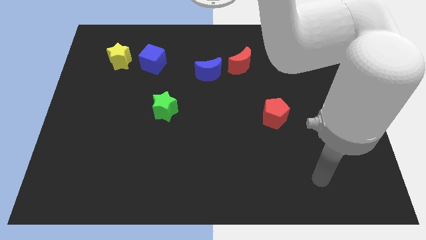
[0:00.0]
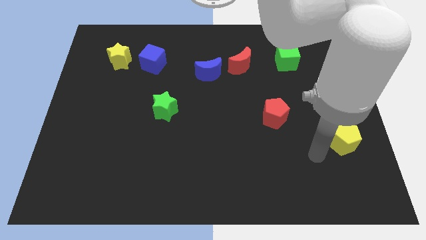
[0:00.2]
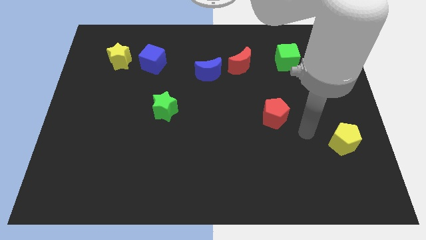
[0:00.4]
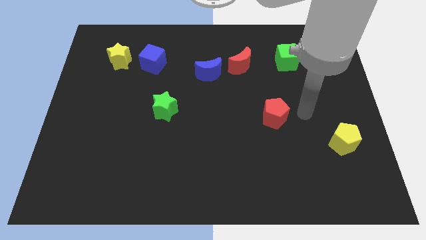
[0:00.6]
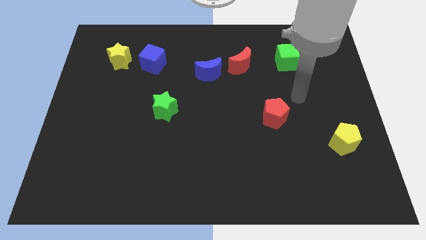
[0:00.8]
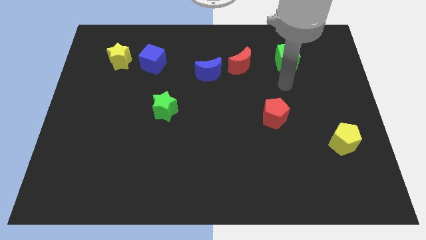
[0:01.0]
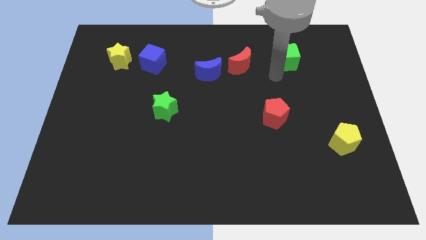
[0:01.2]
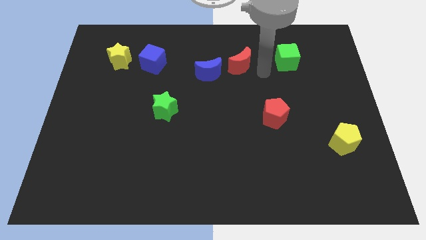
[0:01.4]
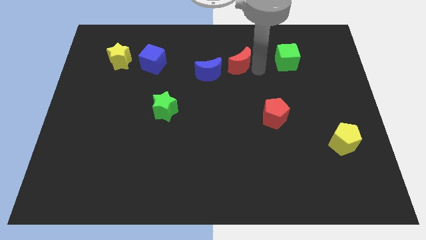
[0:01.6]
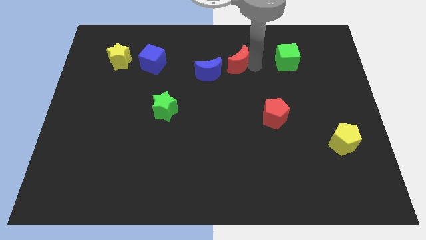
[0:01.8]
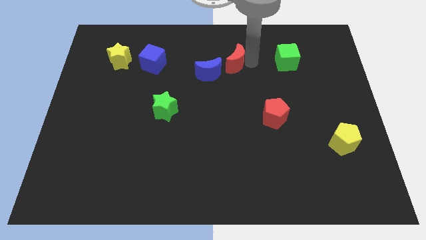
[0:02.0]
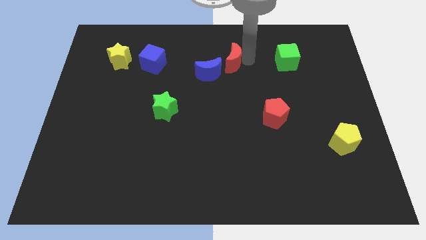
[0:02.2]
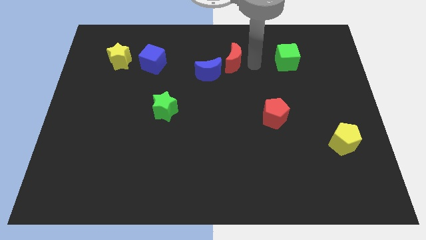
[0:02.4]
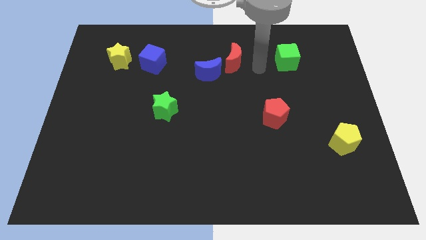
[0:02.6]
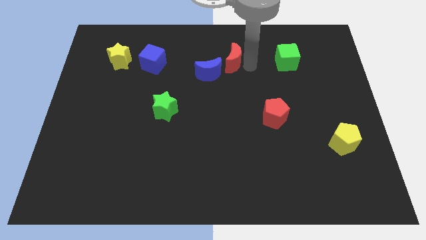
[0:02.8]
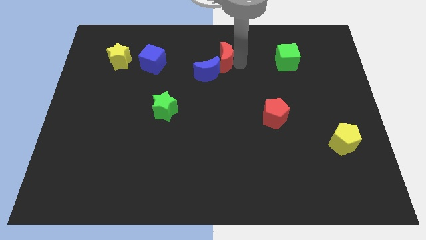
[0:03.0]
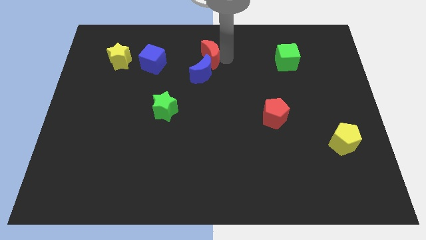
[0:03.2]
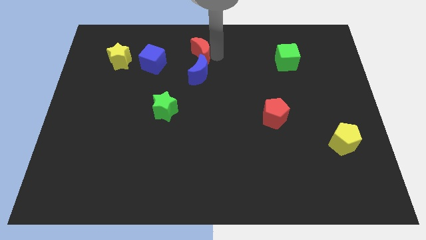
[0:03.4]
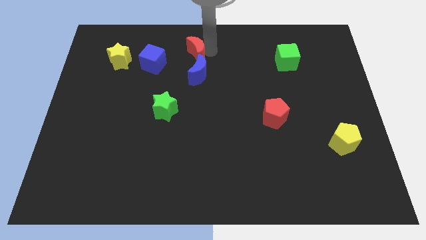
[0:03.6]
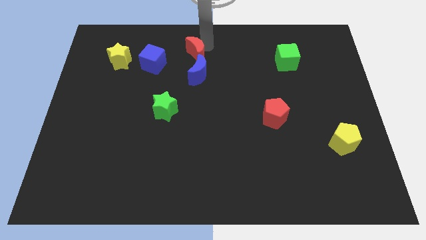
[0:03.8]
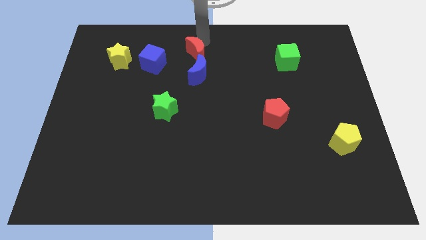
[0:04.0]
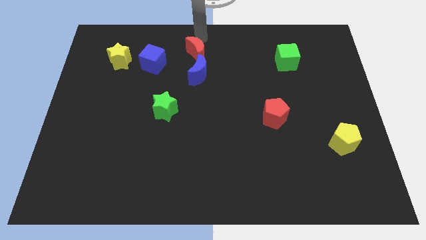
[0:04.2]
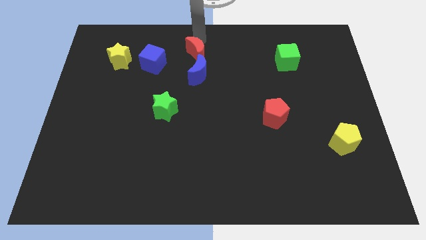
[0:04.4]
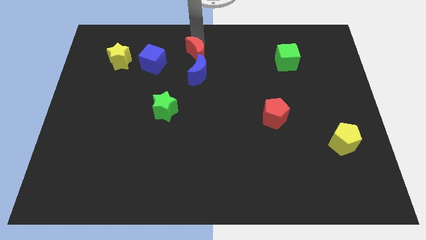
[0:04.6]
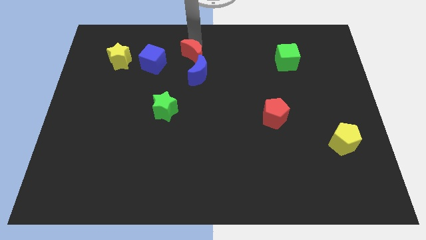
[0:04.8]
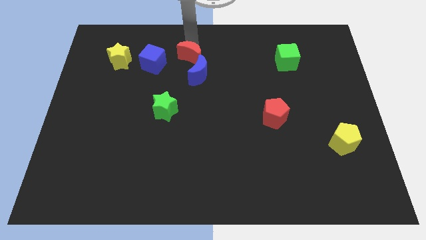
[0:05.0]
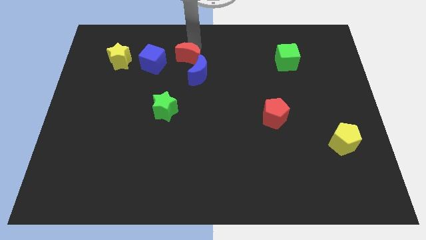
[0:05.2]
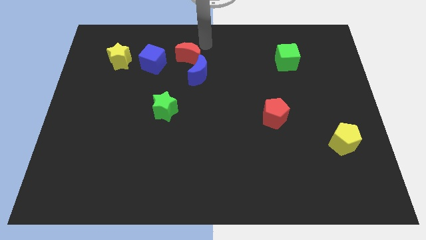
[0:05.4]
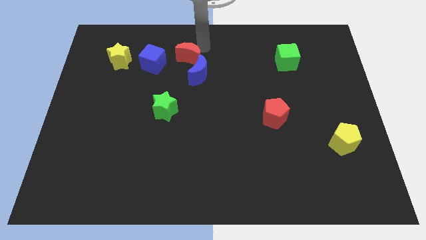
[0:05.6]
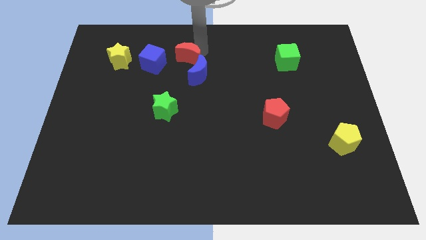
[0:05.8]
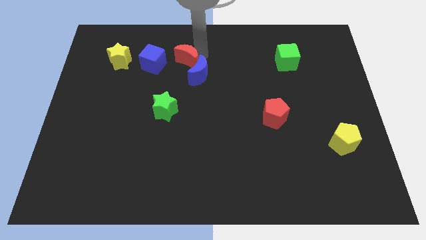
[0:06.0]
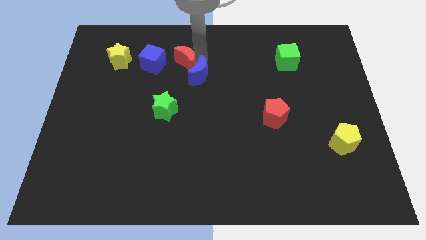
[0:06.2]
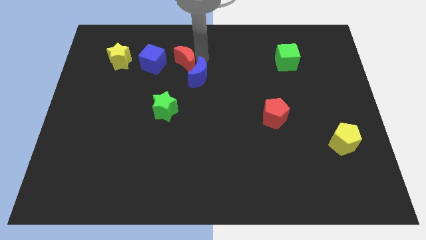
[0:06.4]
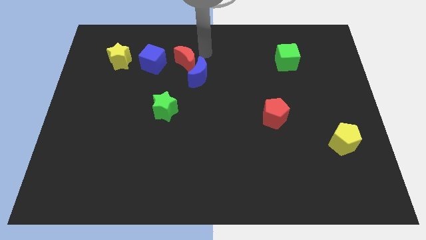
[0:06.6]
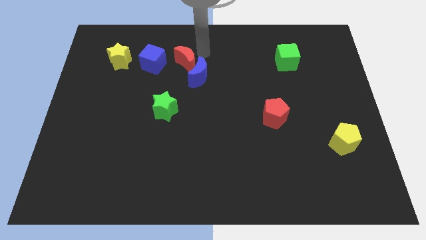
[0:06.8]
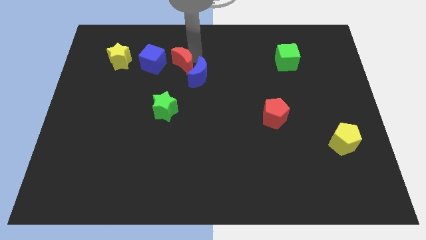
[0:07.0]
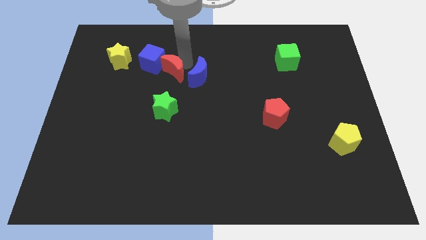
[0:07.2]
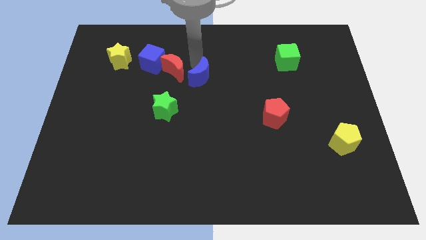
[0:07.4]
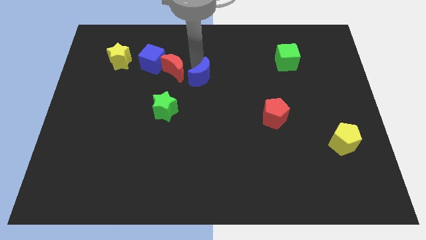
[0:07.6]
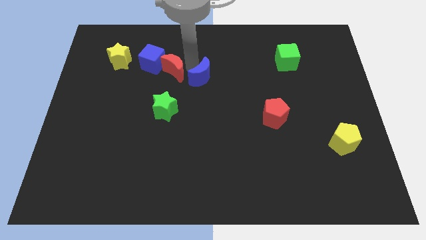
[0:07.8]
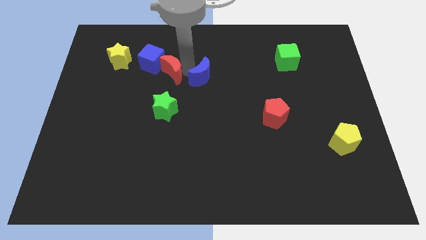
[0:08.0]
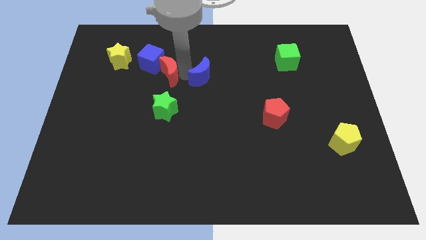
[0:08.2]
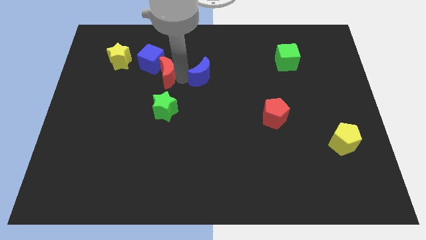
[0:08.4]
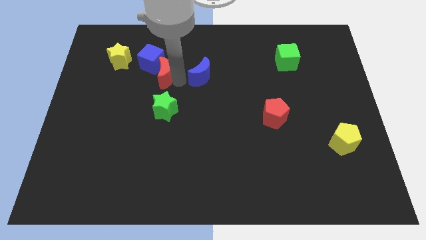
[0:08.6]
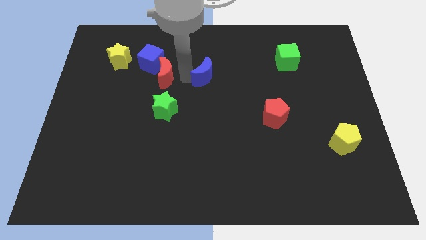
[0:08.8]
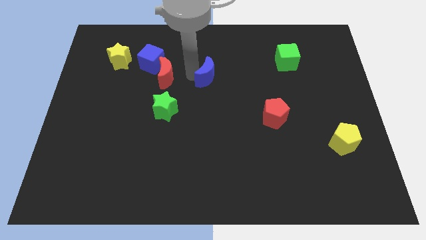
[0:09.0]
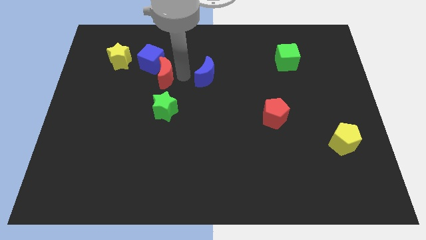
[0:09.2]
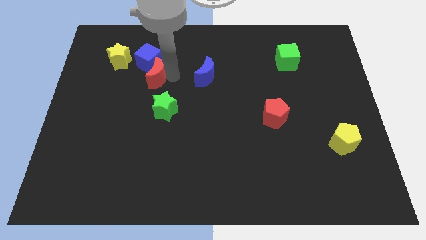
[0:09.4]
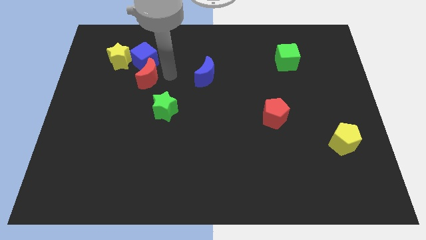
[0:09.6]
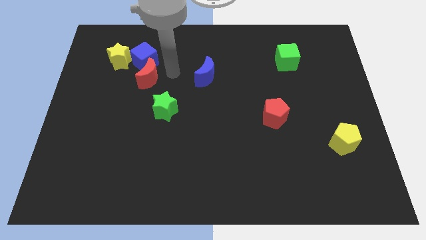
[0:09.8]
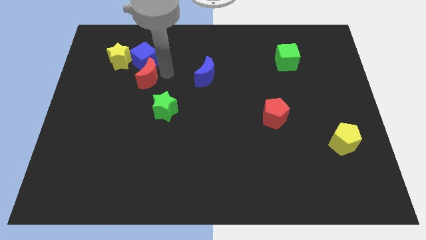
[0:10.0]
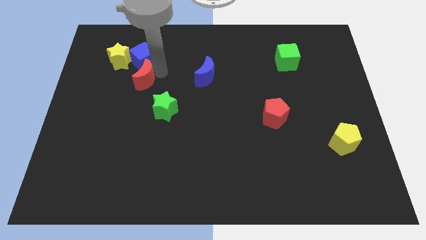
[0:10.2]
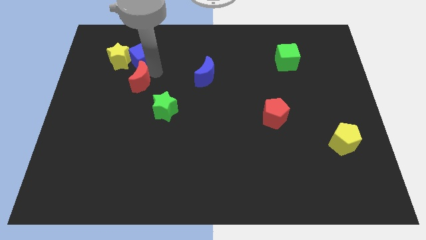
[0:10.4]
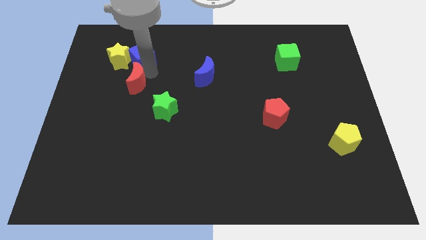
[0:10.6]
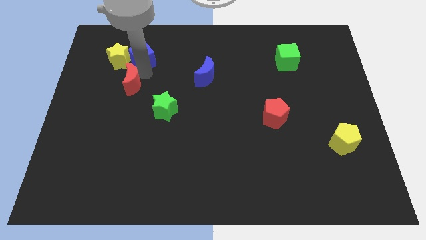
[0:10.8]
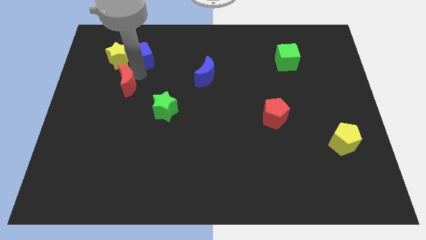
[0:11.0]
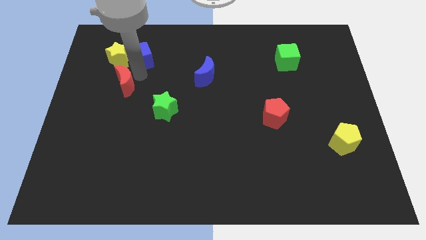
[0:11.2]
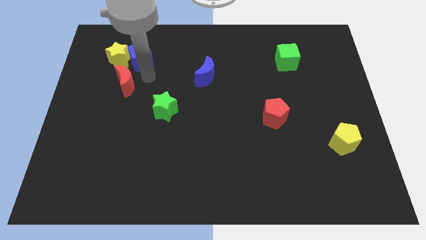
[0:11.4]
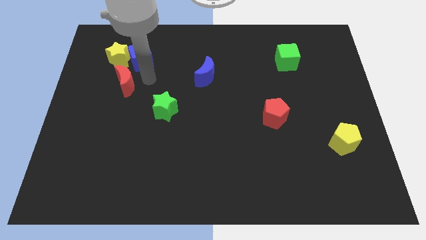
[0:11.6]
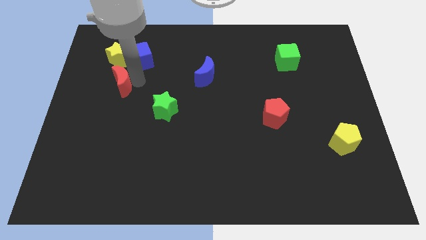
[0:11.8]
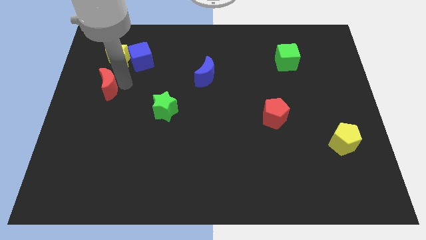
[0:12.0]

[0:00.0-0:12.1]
move the red moon to the center left

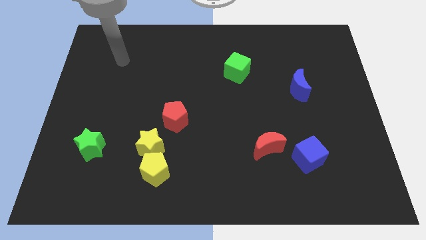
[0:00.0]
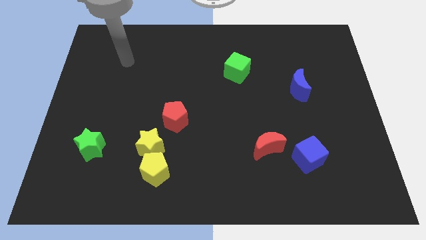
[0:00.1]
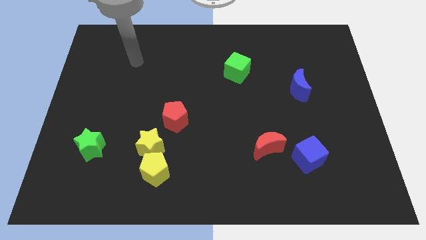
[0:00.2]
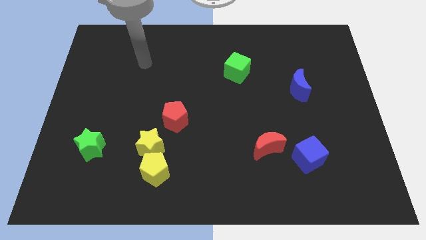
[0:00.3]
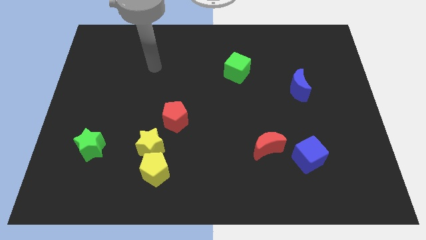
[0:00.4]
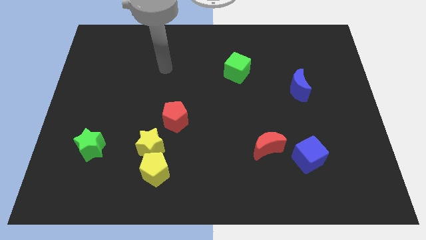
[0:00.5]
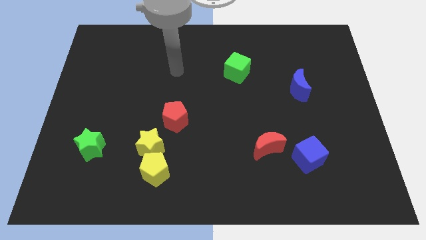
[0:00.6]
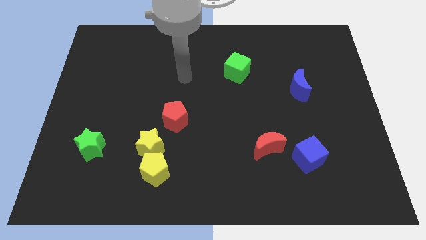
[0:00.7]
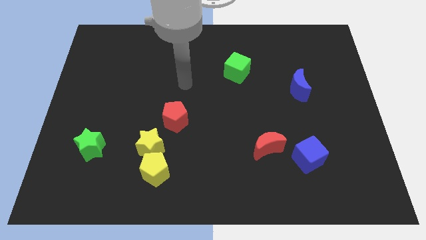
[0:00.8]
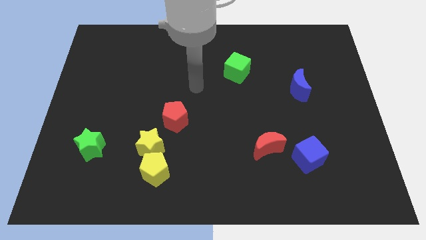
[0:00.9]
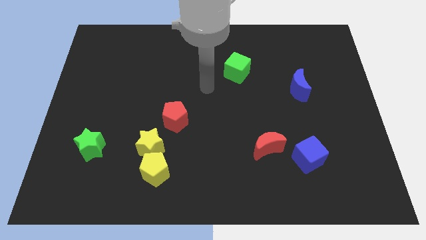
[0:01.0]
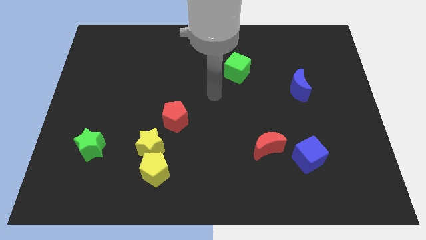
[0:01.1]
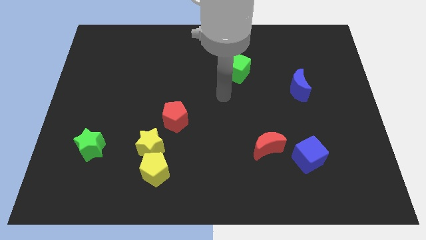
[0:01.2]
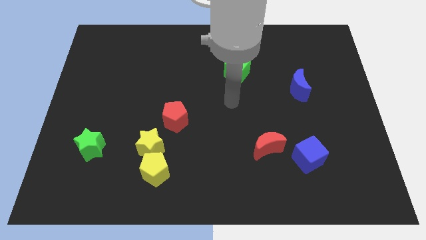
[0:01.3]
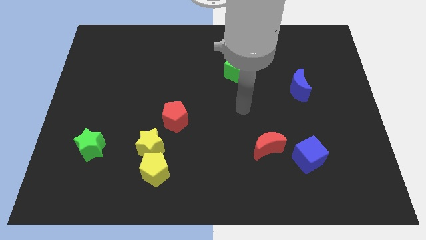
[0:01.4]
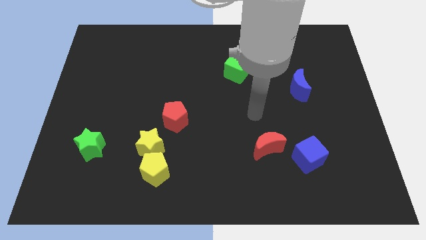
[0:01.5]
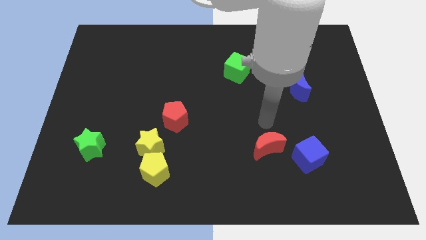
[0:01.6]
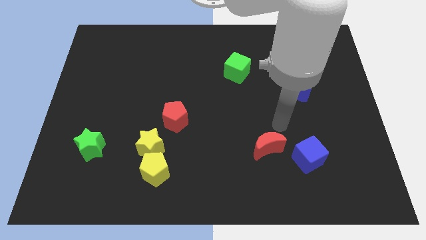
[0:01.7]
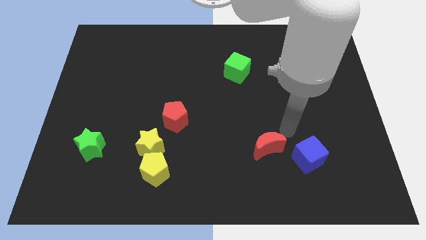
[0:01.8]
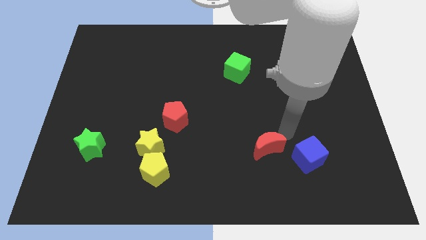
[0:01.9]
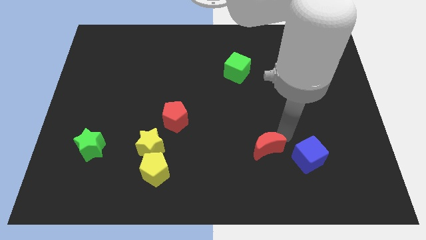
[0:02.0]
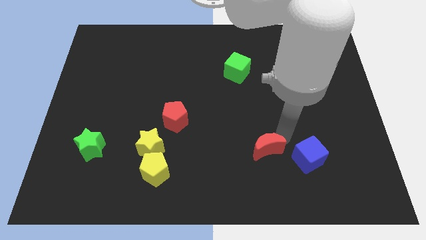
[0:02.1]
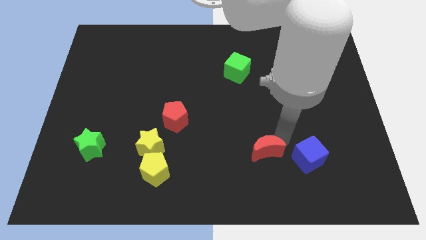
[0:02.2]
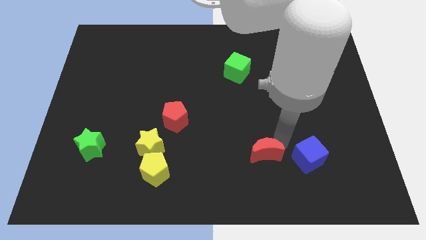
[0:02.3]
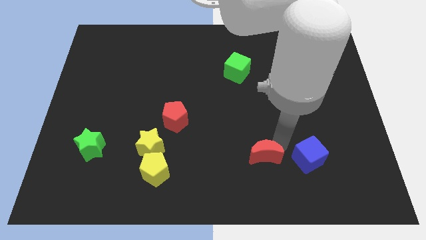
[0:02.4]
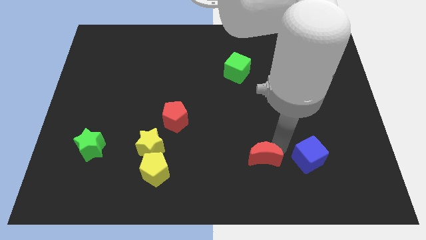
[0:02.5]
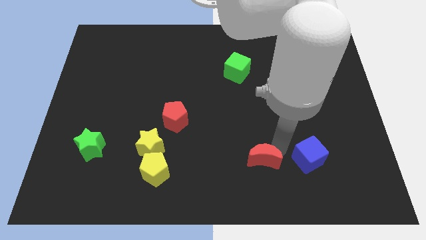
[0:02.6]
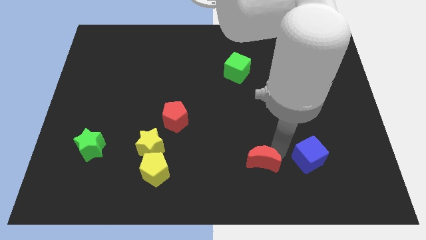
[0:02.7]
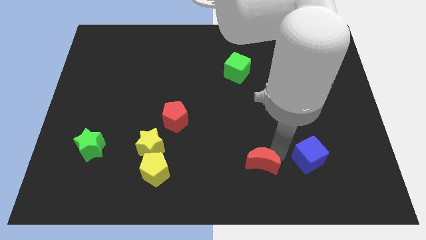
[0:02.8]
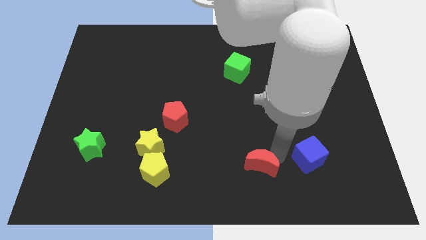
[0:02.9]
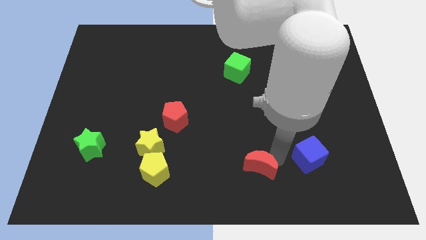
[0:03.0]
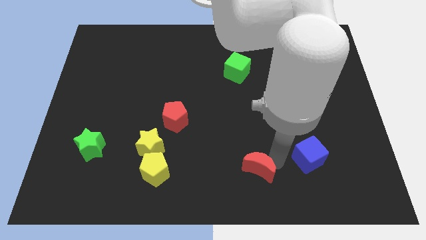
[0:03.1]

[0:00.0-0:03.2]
put the red moon to the bottom
